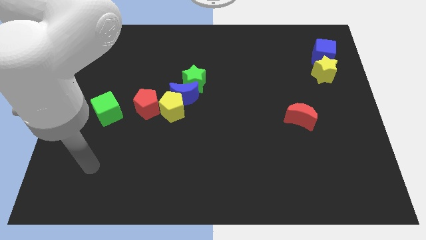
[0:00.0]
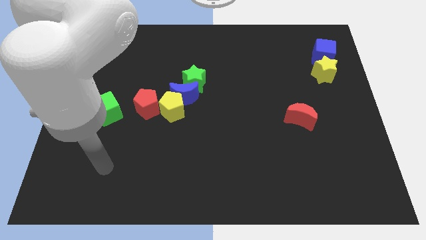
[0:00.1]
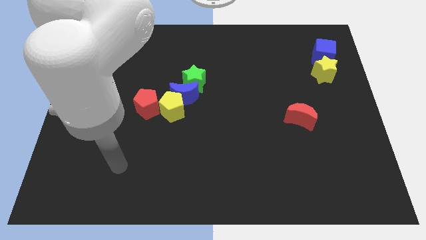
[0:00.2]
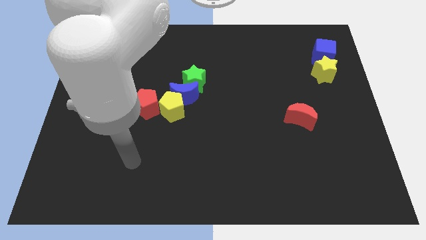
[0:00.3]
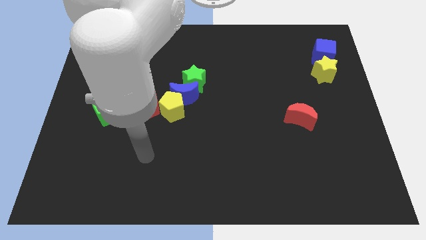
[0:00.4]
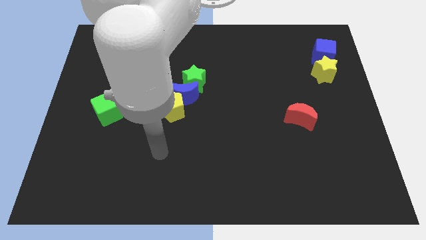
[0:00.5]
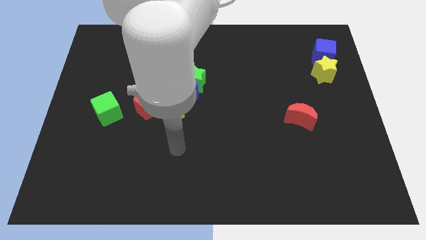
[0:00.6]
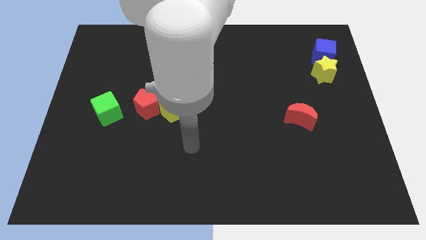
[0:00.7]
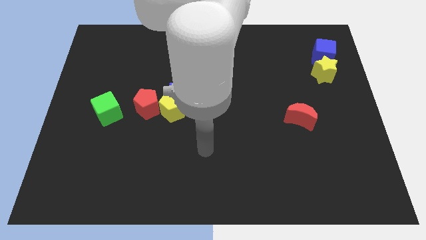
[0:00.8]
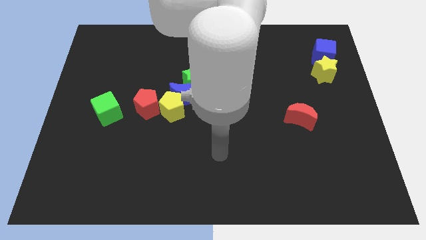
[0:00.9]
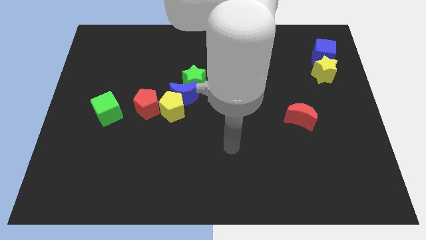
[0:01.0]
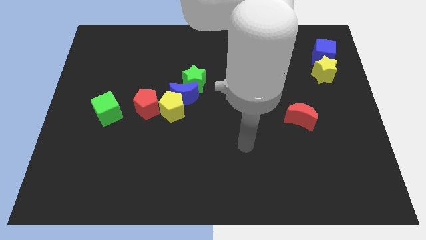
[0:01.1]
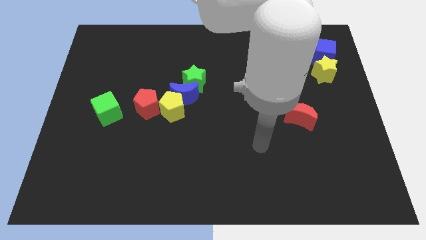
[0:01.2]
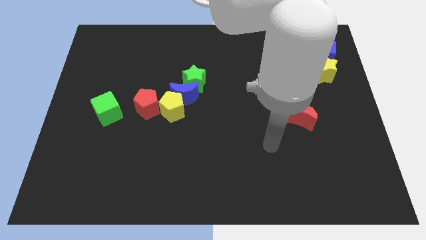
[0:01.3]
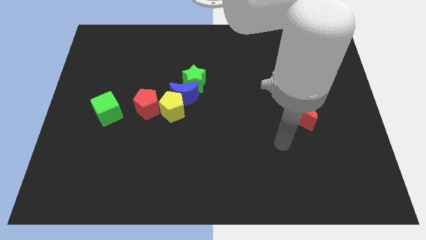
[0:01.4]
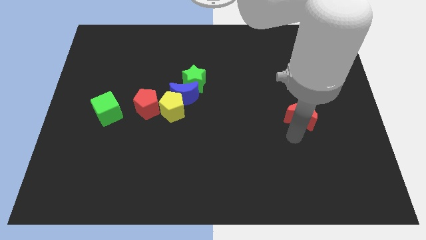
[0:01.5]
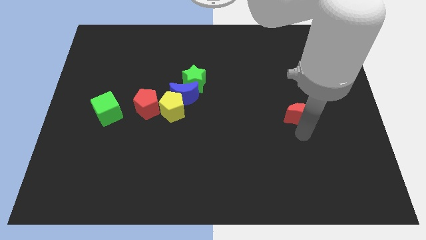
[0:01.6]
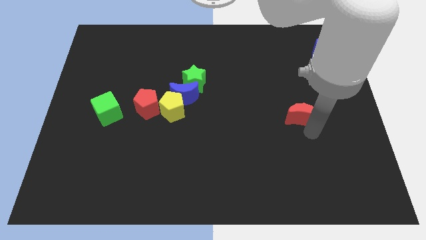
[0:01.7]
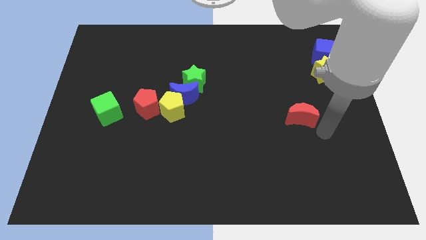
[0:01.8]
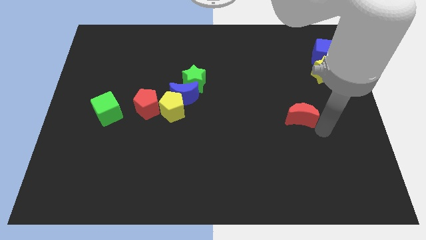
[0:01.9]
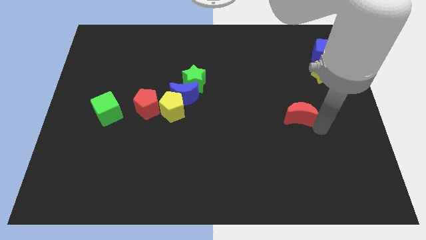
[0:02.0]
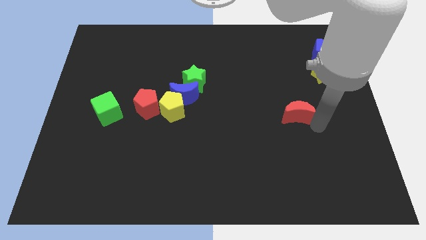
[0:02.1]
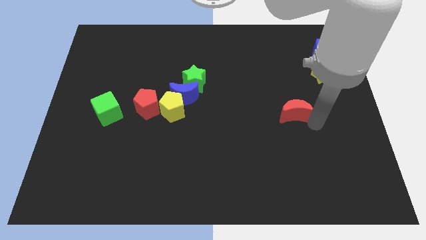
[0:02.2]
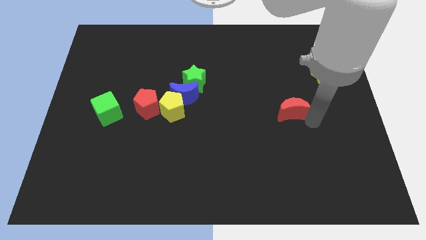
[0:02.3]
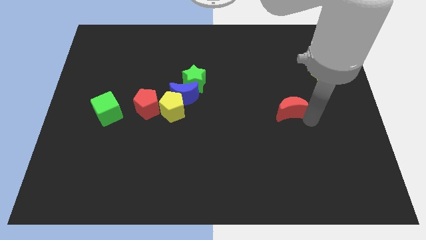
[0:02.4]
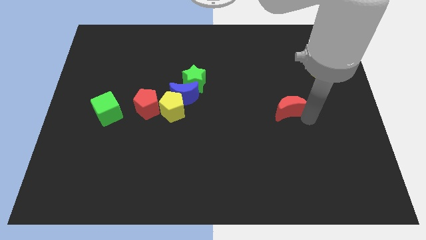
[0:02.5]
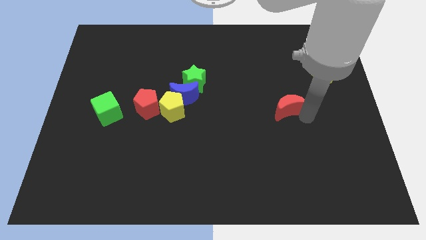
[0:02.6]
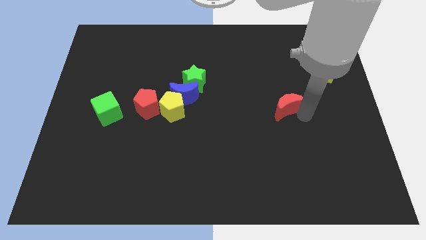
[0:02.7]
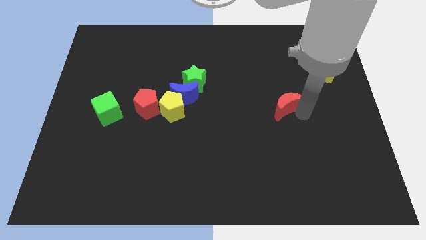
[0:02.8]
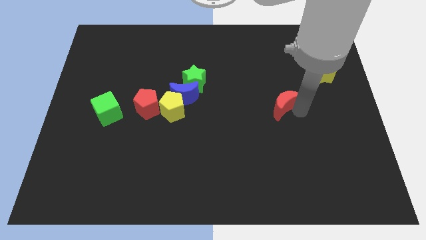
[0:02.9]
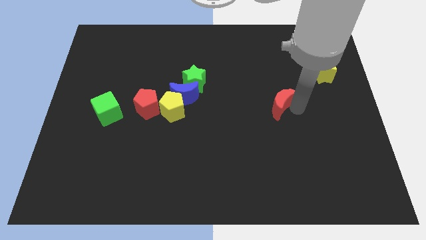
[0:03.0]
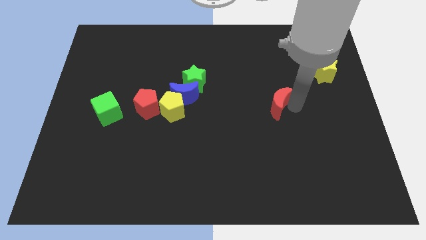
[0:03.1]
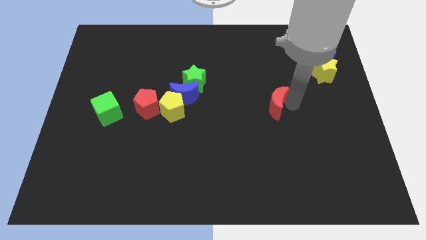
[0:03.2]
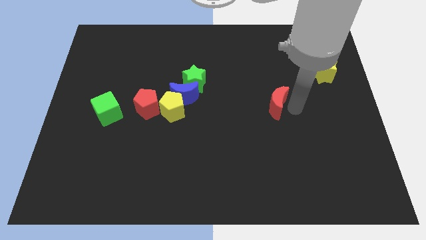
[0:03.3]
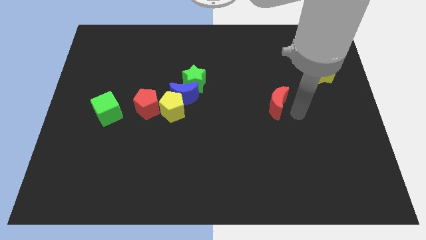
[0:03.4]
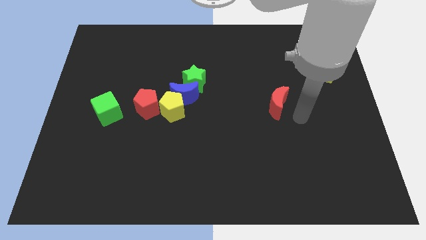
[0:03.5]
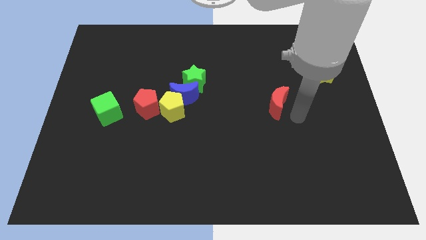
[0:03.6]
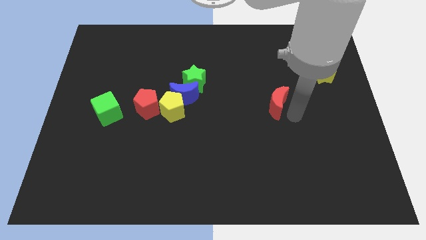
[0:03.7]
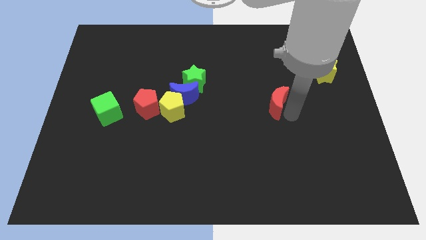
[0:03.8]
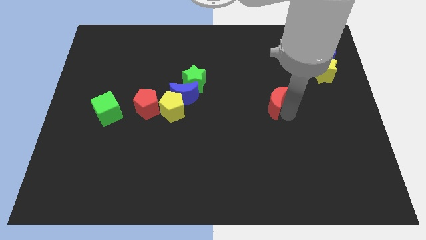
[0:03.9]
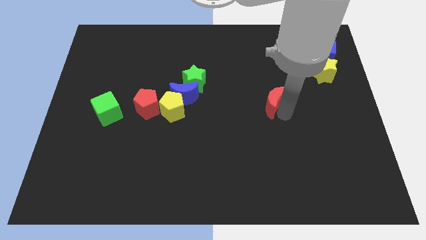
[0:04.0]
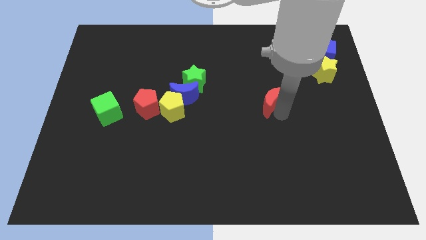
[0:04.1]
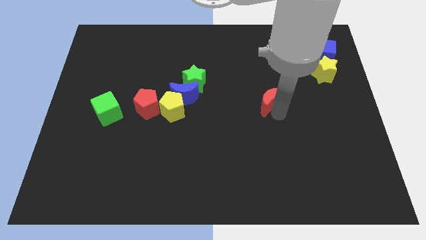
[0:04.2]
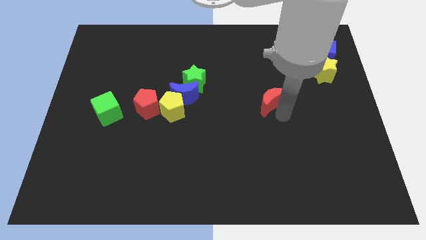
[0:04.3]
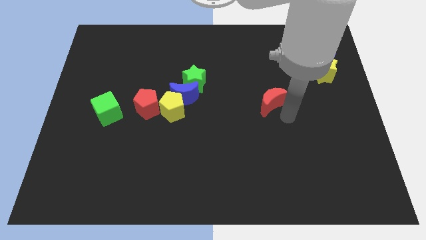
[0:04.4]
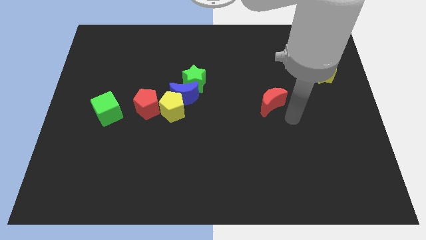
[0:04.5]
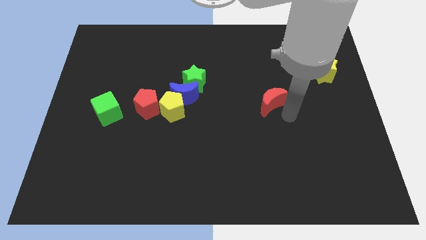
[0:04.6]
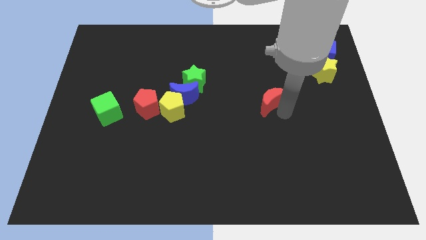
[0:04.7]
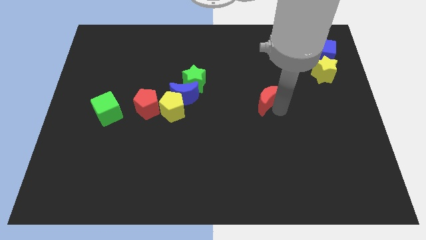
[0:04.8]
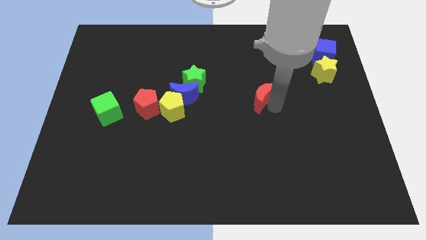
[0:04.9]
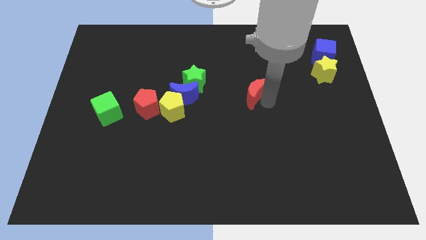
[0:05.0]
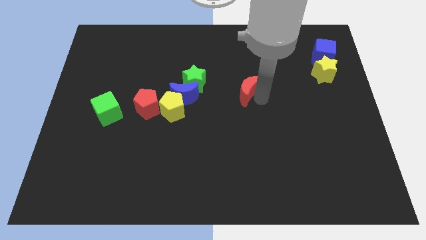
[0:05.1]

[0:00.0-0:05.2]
move the red moon just right of the green star

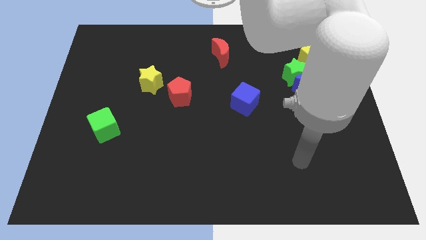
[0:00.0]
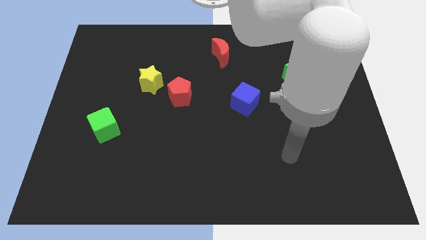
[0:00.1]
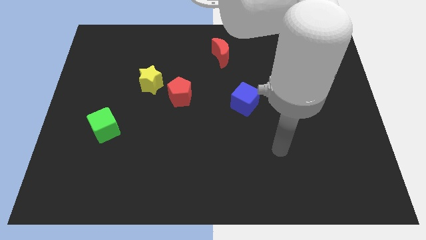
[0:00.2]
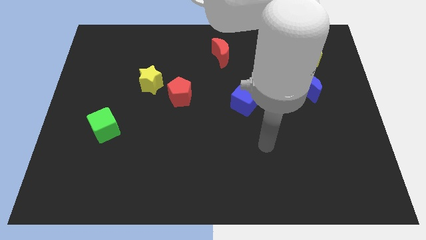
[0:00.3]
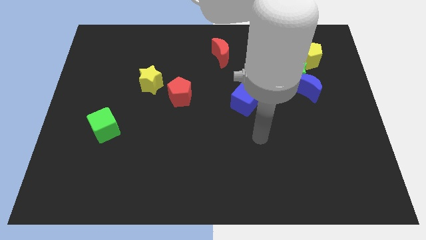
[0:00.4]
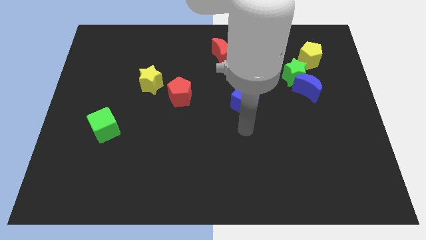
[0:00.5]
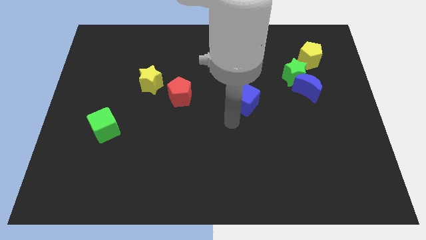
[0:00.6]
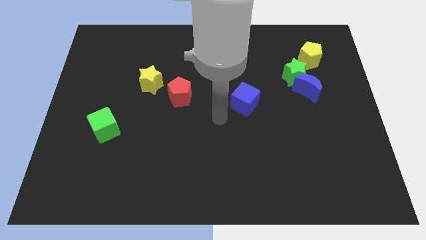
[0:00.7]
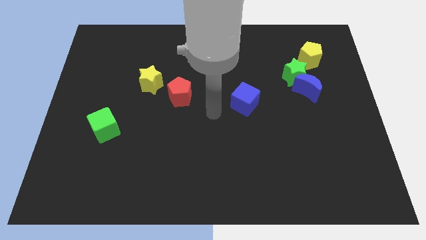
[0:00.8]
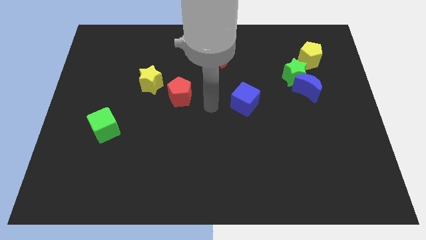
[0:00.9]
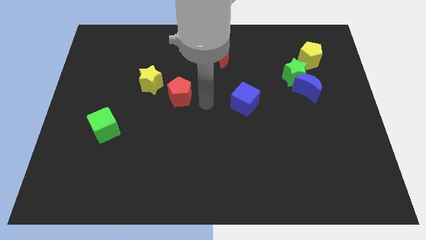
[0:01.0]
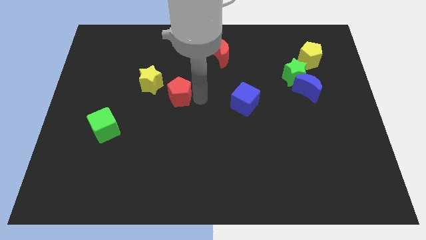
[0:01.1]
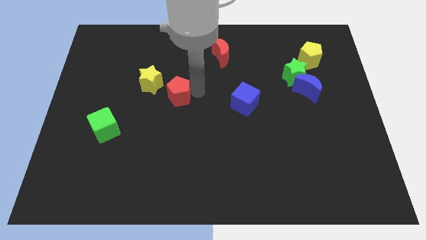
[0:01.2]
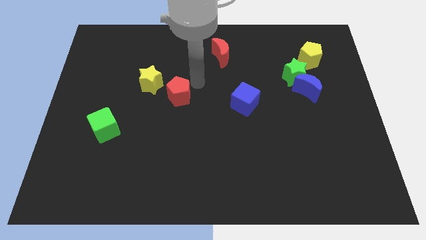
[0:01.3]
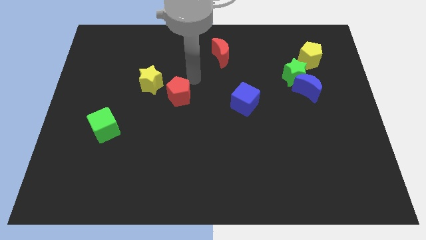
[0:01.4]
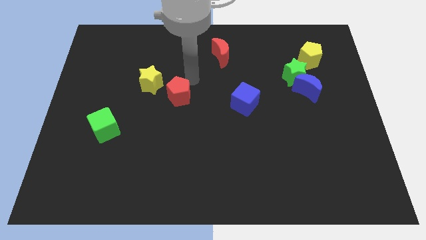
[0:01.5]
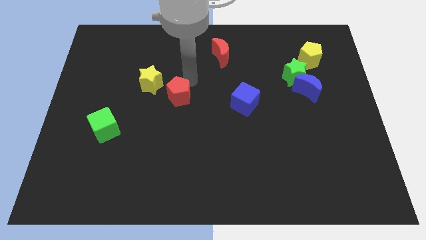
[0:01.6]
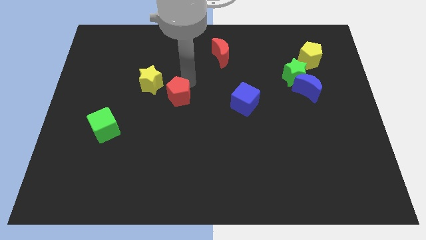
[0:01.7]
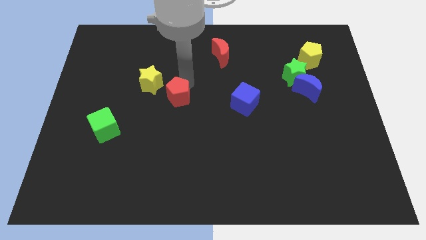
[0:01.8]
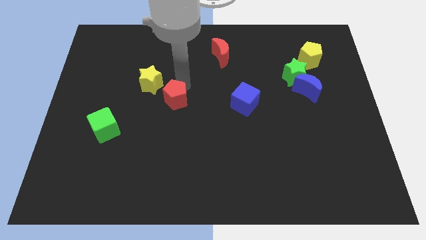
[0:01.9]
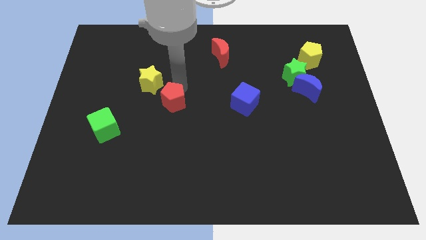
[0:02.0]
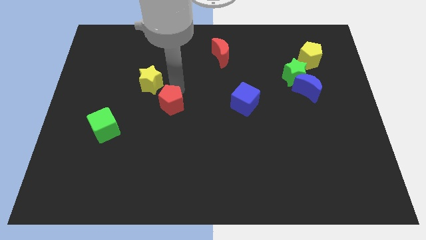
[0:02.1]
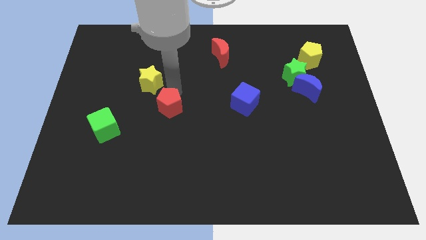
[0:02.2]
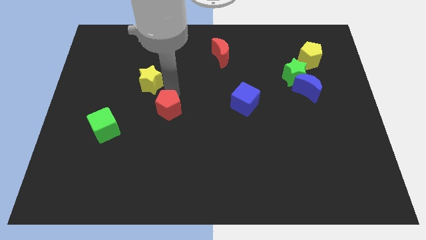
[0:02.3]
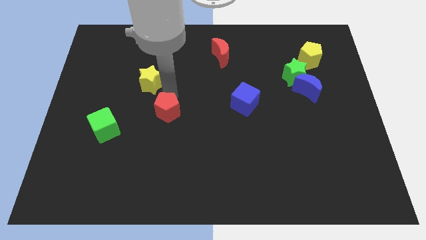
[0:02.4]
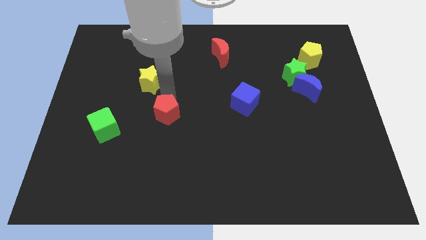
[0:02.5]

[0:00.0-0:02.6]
push the red pentagon just right of the green cube
